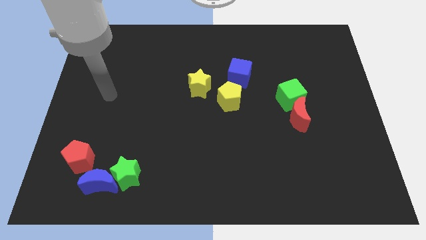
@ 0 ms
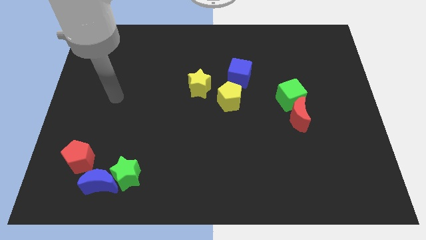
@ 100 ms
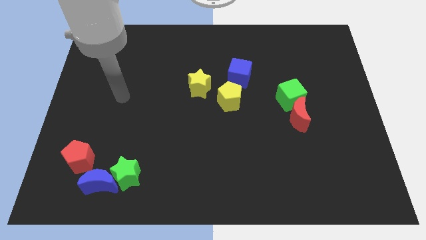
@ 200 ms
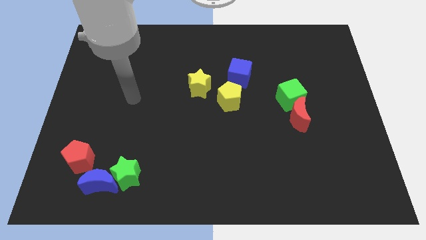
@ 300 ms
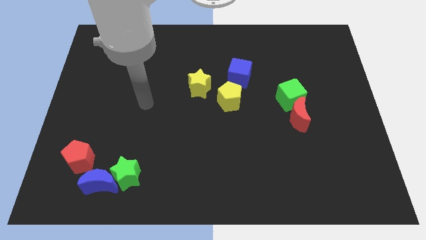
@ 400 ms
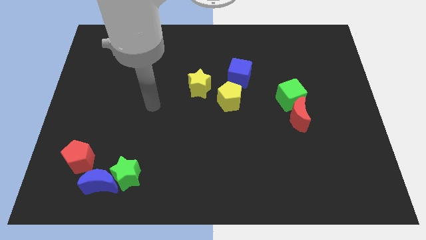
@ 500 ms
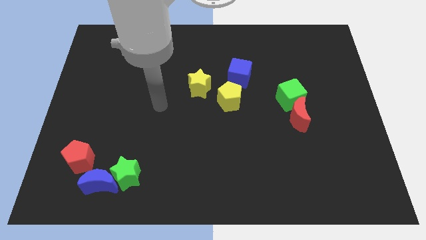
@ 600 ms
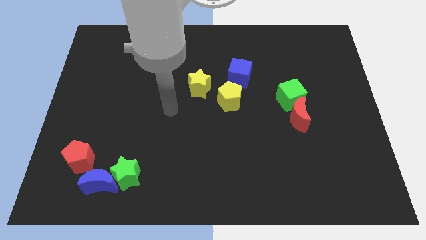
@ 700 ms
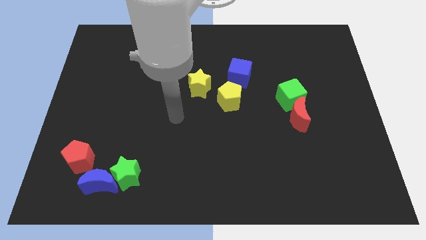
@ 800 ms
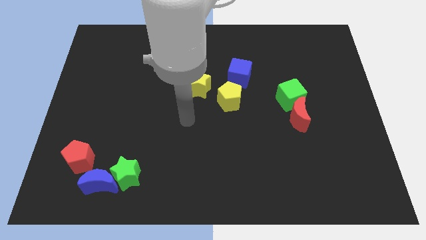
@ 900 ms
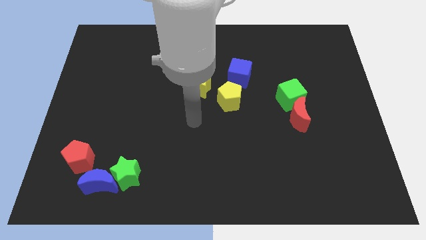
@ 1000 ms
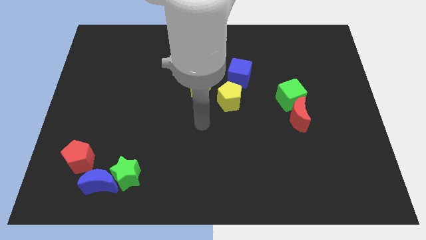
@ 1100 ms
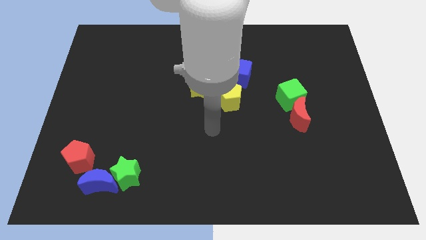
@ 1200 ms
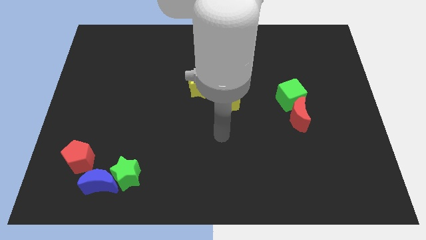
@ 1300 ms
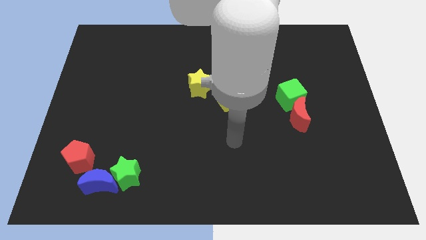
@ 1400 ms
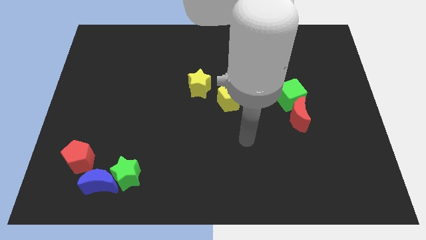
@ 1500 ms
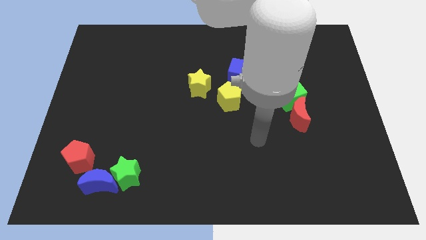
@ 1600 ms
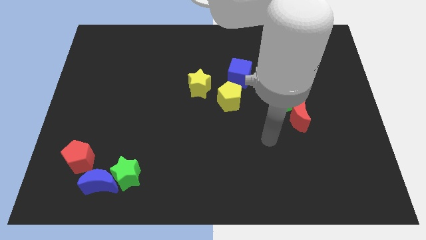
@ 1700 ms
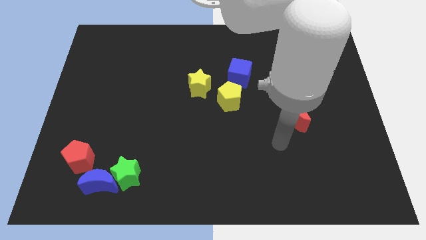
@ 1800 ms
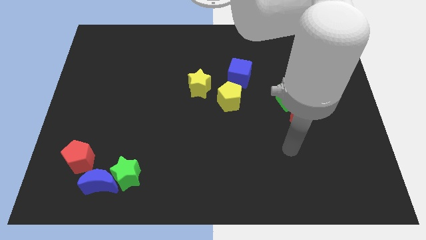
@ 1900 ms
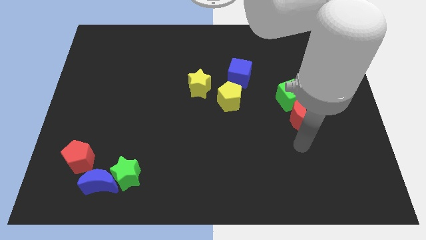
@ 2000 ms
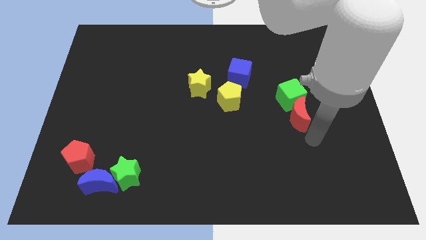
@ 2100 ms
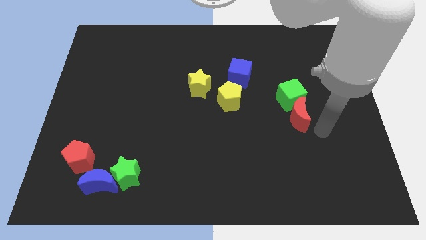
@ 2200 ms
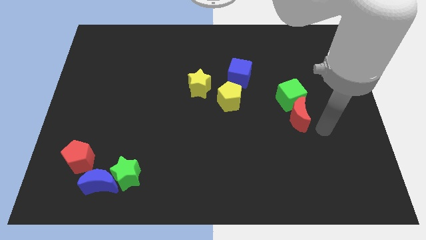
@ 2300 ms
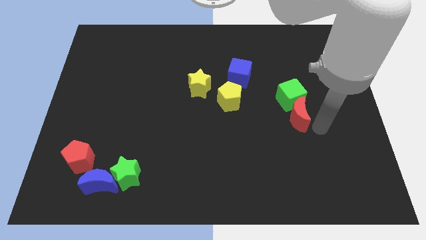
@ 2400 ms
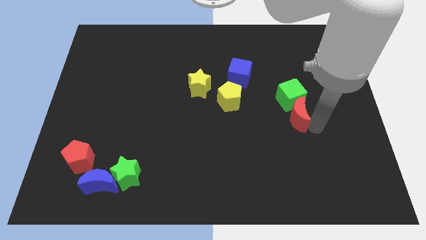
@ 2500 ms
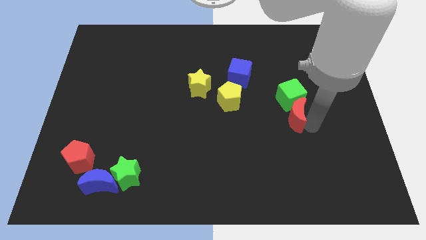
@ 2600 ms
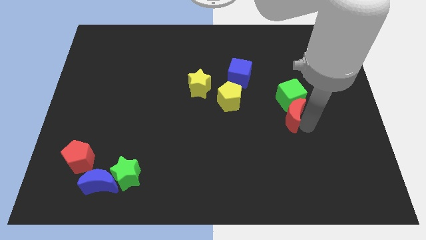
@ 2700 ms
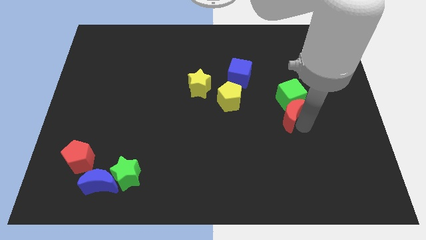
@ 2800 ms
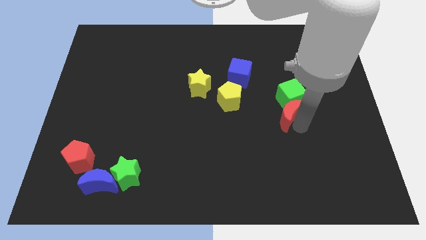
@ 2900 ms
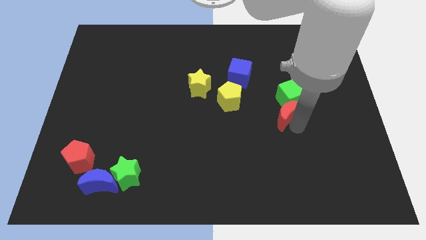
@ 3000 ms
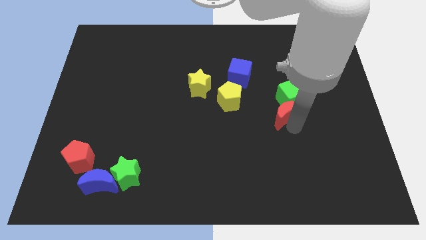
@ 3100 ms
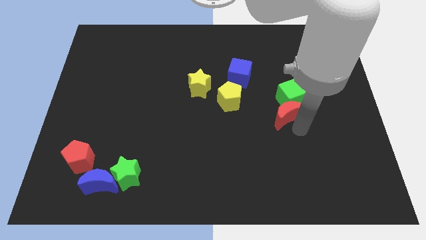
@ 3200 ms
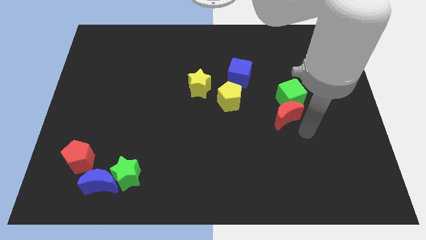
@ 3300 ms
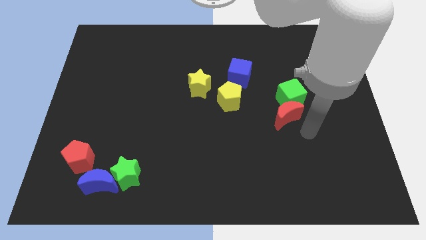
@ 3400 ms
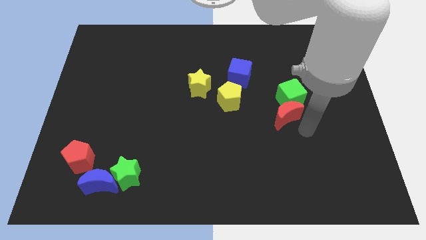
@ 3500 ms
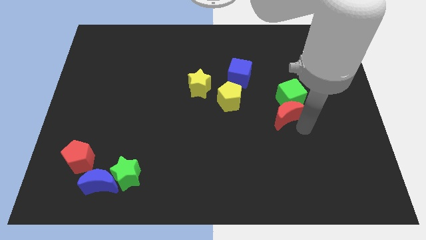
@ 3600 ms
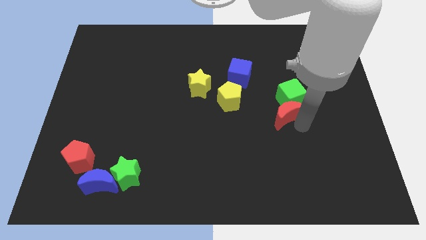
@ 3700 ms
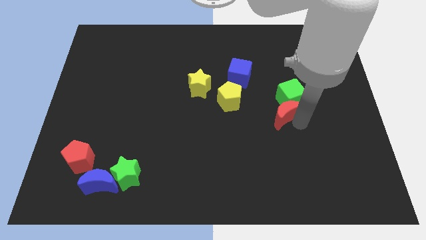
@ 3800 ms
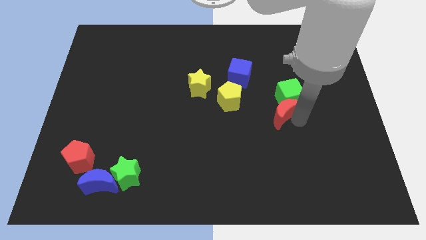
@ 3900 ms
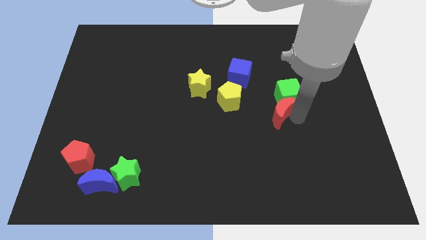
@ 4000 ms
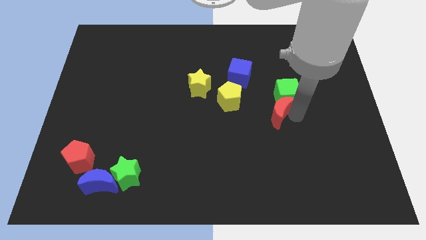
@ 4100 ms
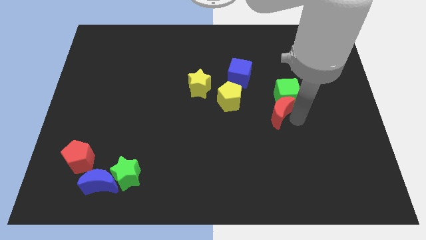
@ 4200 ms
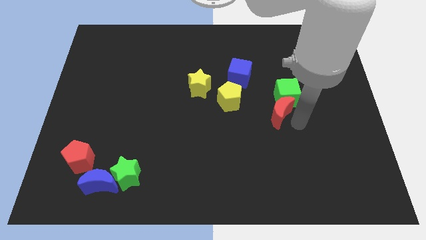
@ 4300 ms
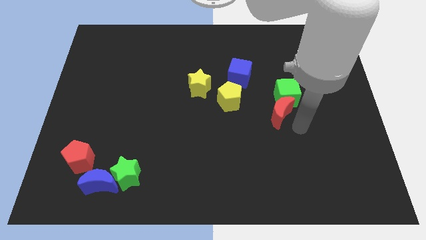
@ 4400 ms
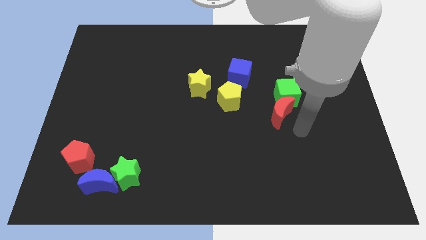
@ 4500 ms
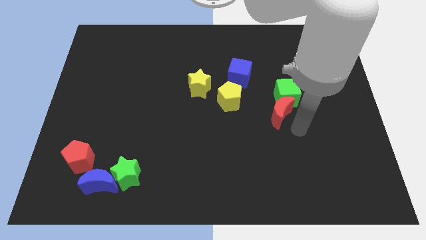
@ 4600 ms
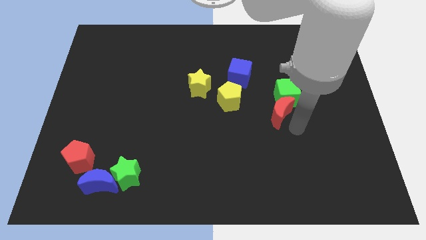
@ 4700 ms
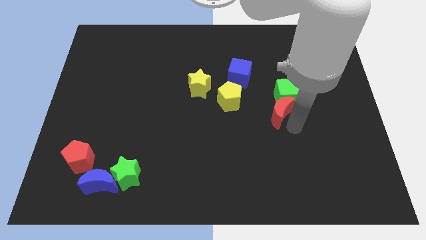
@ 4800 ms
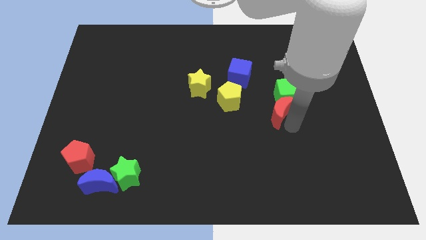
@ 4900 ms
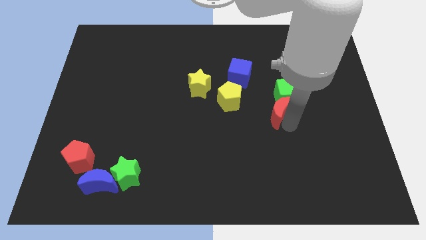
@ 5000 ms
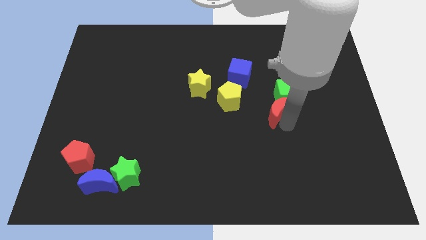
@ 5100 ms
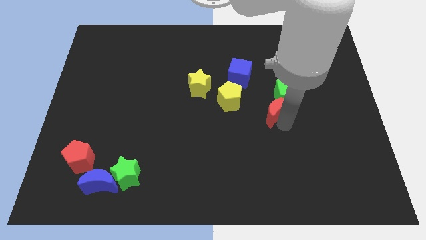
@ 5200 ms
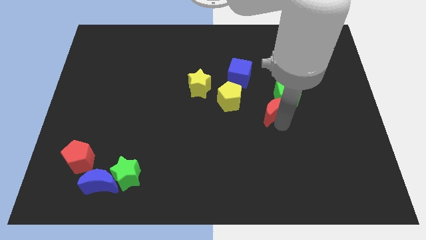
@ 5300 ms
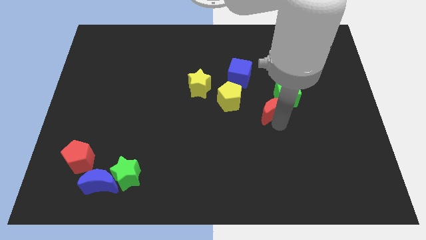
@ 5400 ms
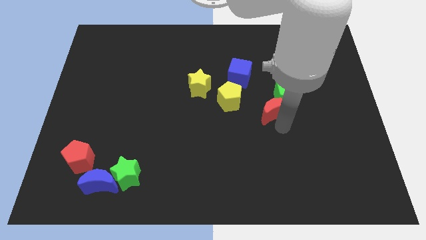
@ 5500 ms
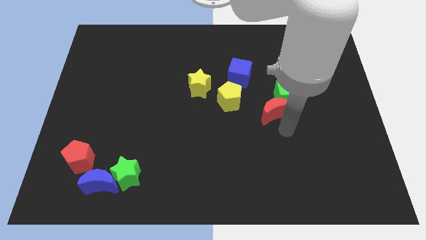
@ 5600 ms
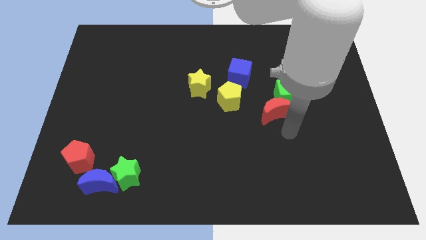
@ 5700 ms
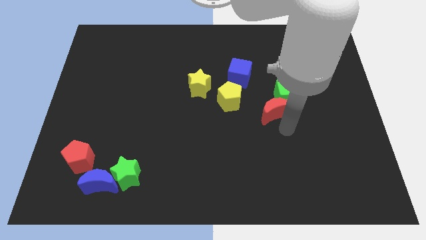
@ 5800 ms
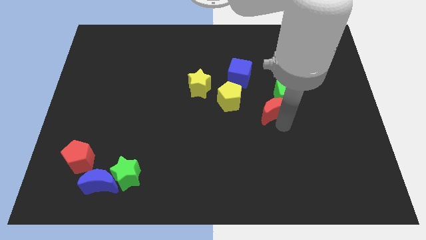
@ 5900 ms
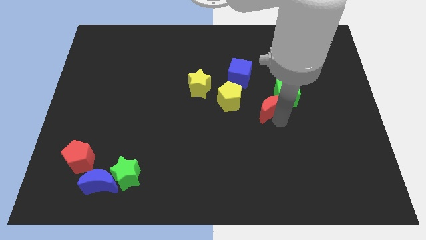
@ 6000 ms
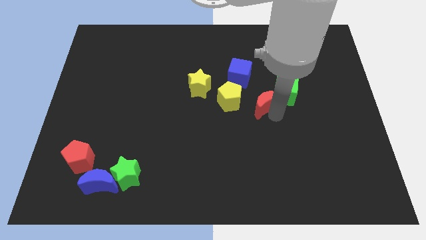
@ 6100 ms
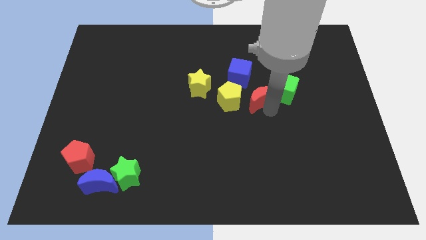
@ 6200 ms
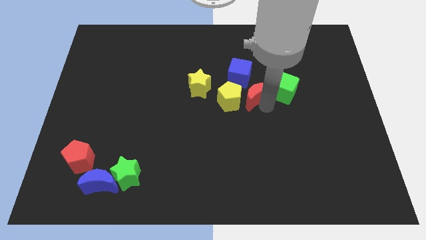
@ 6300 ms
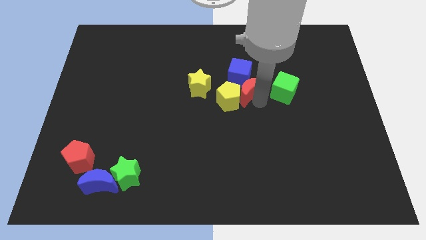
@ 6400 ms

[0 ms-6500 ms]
push the red moon next to the blue cube

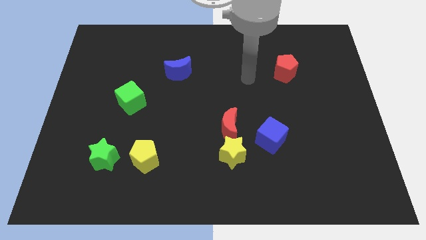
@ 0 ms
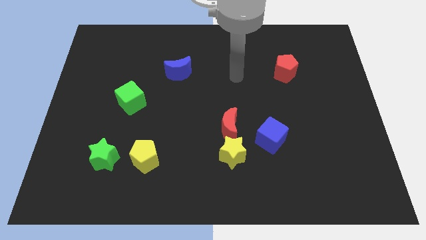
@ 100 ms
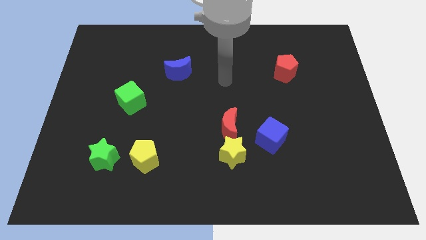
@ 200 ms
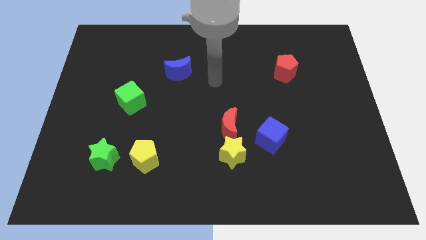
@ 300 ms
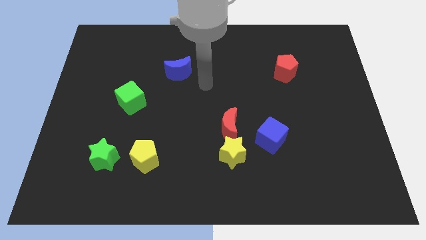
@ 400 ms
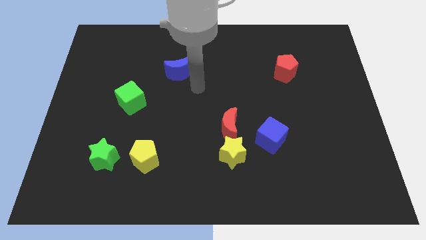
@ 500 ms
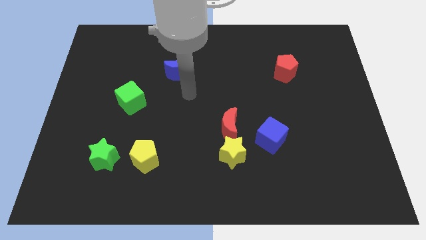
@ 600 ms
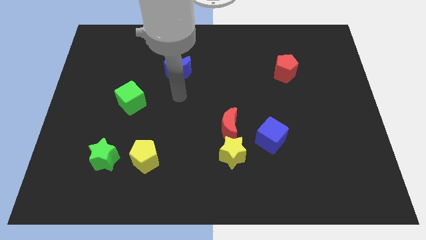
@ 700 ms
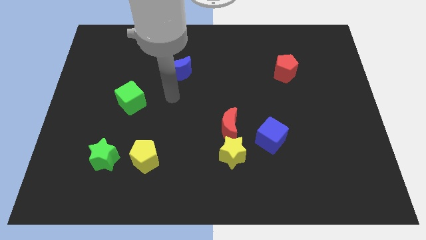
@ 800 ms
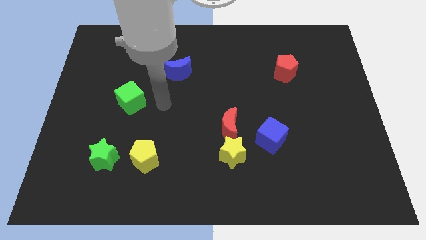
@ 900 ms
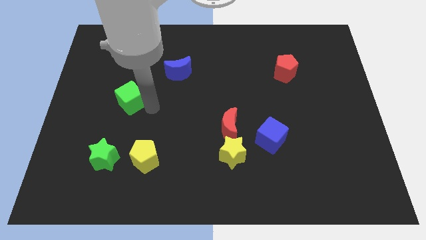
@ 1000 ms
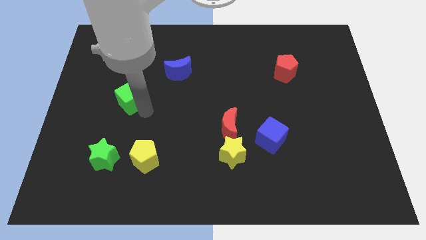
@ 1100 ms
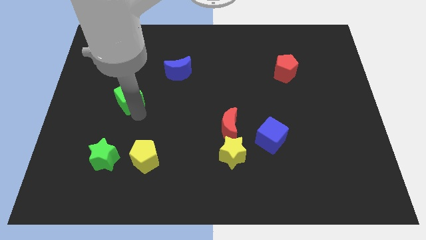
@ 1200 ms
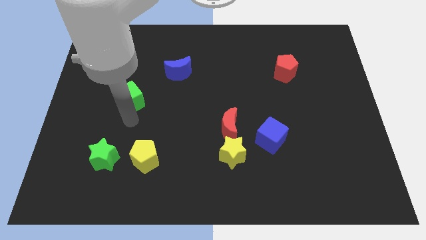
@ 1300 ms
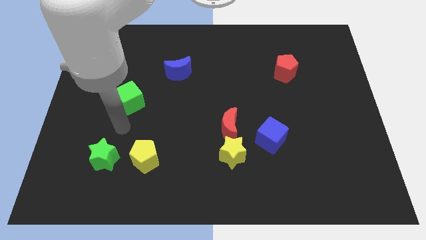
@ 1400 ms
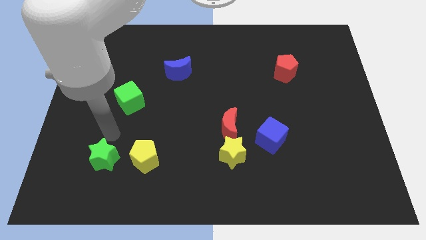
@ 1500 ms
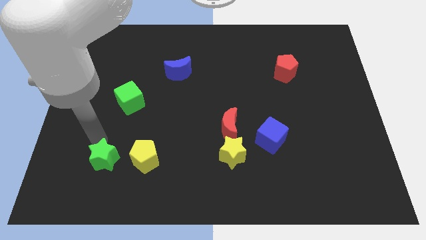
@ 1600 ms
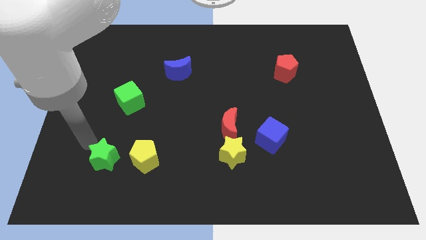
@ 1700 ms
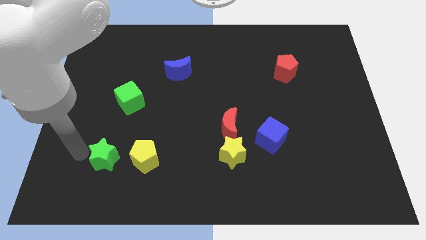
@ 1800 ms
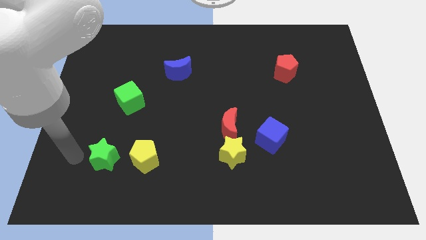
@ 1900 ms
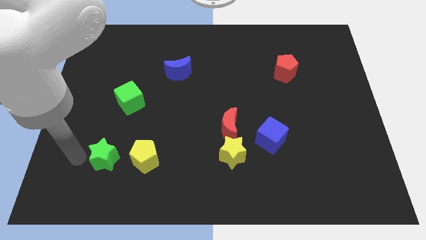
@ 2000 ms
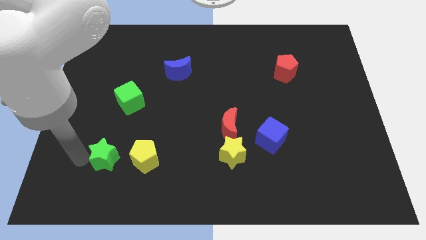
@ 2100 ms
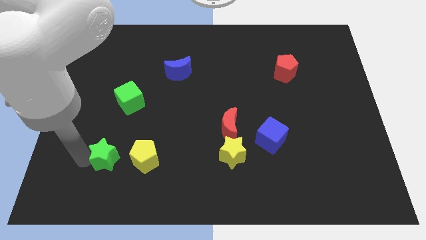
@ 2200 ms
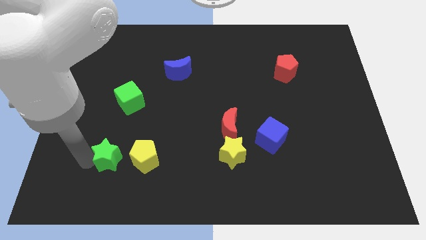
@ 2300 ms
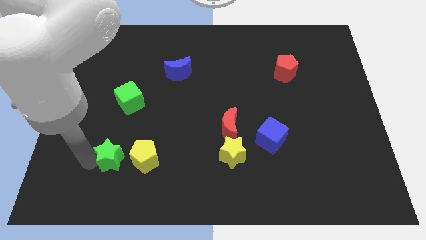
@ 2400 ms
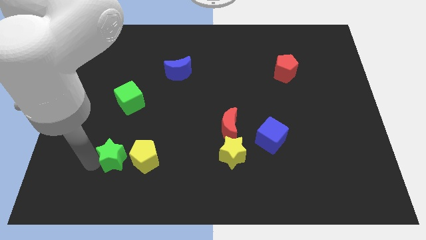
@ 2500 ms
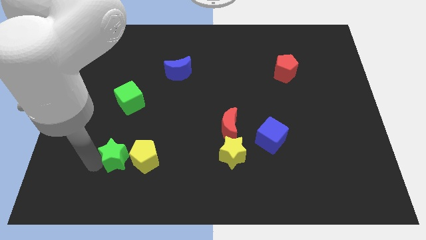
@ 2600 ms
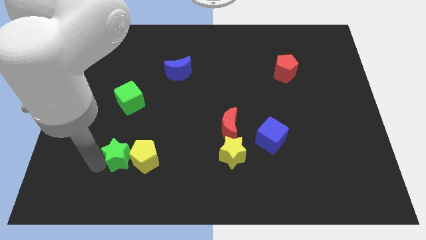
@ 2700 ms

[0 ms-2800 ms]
put the green star towards the yellow pentagon
